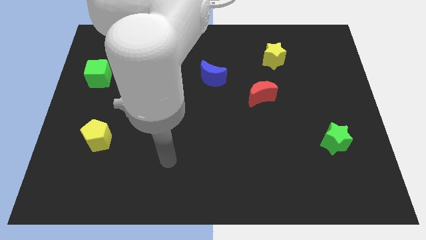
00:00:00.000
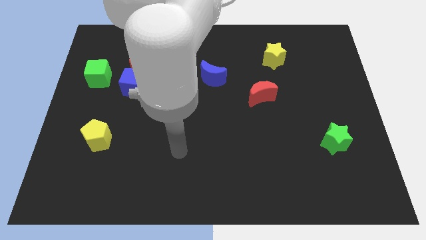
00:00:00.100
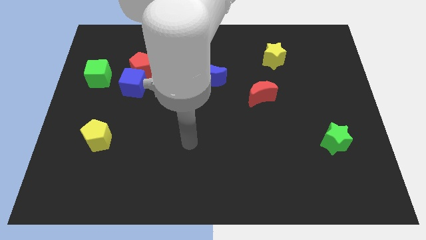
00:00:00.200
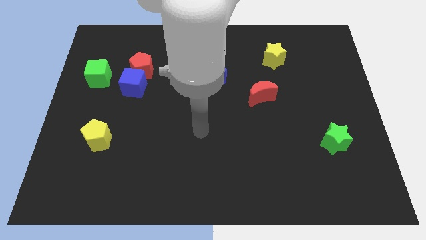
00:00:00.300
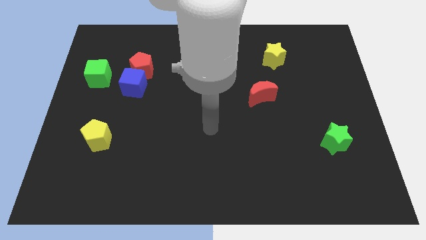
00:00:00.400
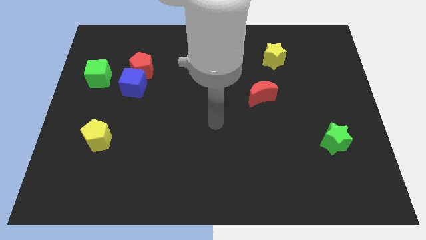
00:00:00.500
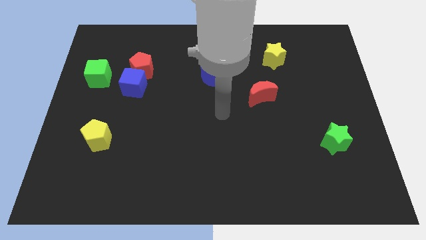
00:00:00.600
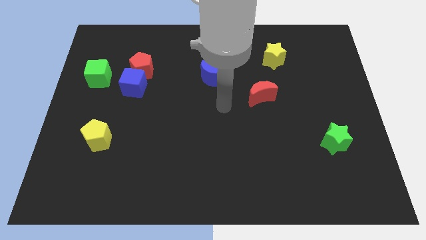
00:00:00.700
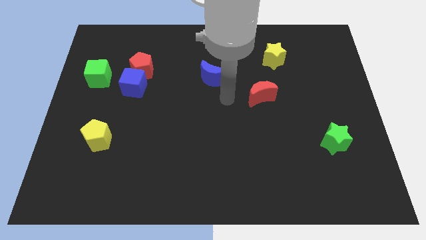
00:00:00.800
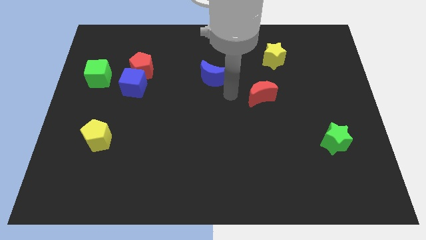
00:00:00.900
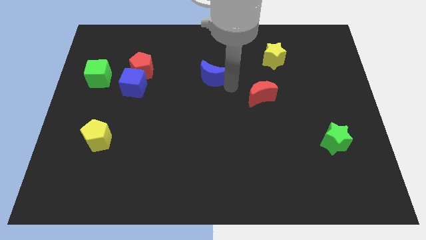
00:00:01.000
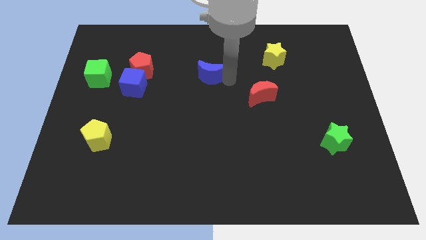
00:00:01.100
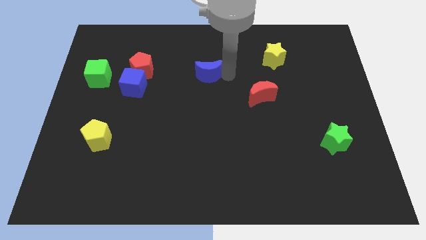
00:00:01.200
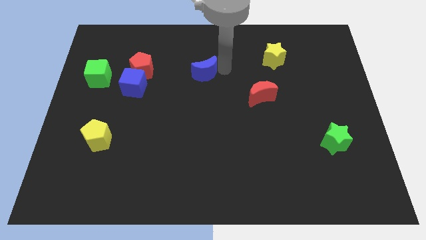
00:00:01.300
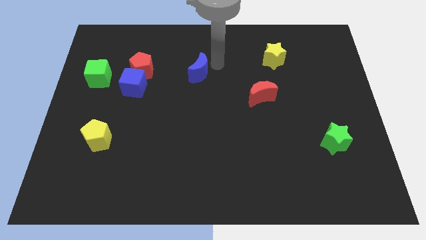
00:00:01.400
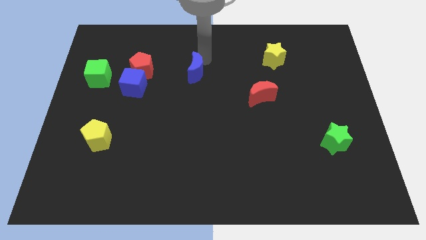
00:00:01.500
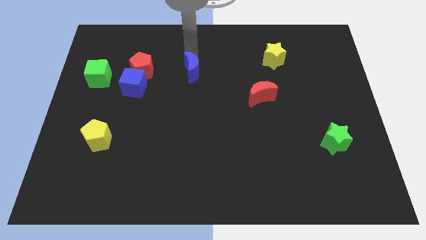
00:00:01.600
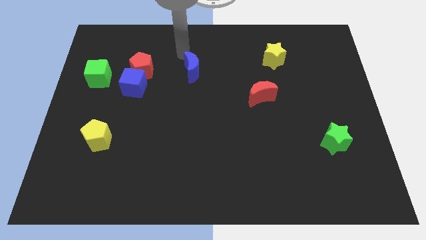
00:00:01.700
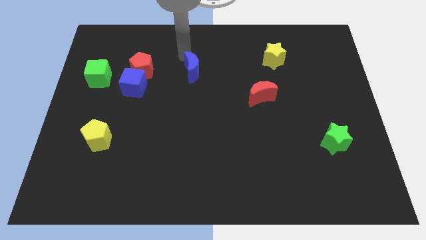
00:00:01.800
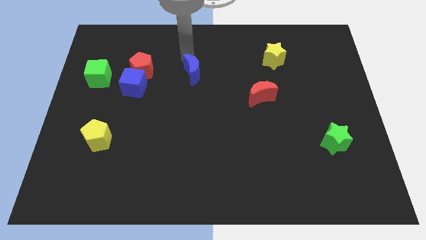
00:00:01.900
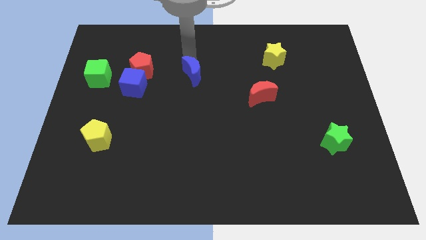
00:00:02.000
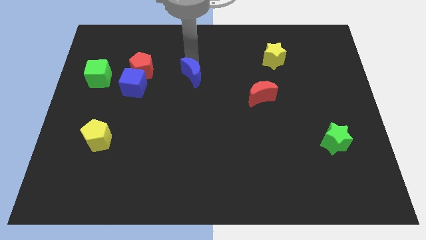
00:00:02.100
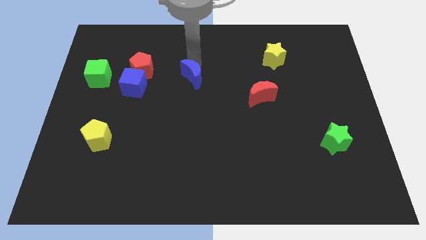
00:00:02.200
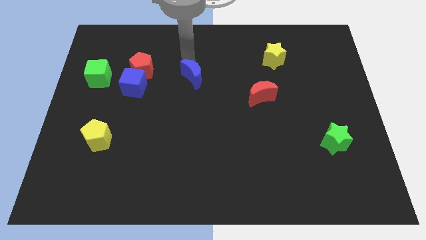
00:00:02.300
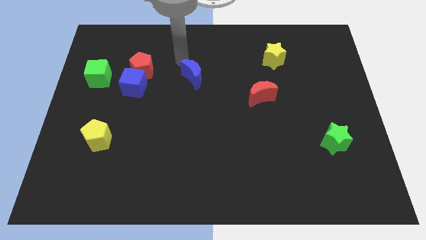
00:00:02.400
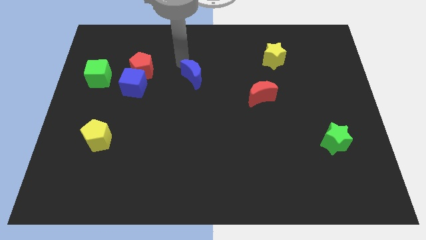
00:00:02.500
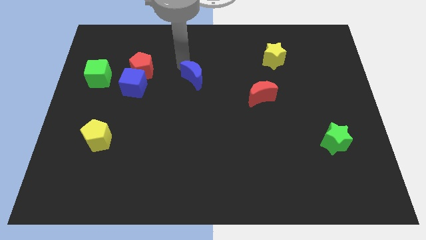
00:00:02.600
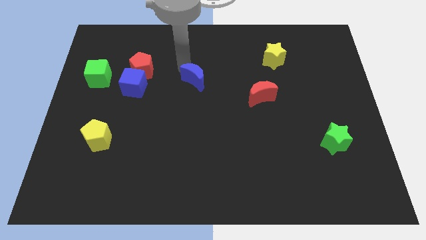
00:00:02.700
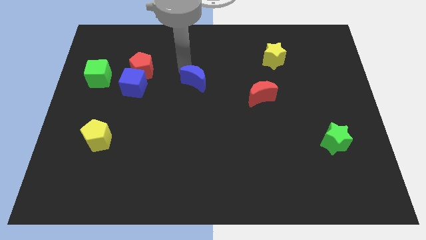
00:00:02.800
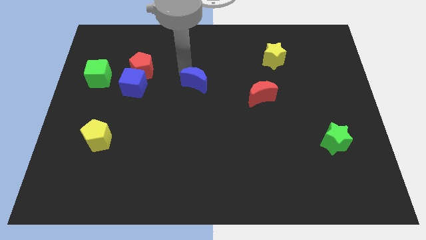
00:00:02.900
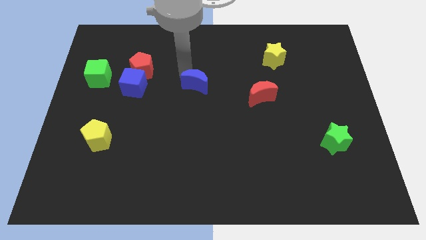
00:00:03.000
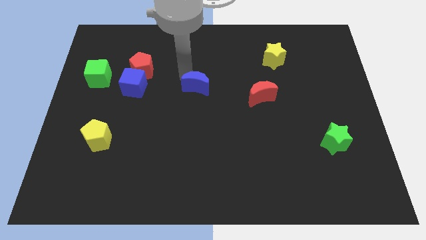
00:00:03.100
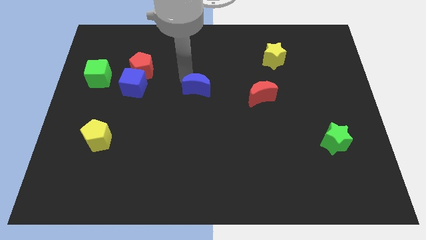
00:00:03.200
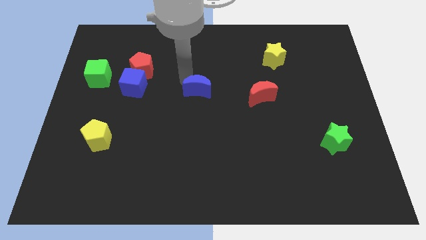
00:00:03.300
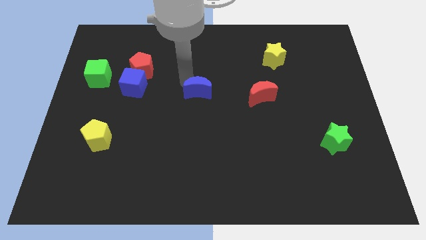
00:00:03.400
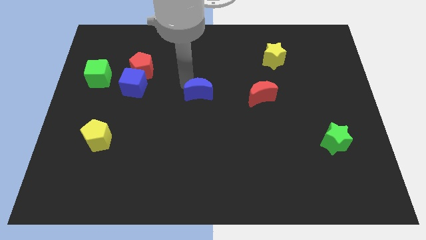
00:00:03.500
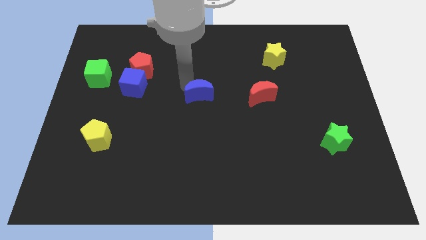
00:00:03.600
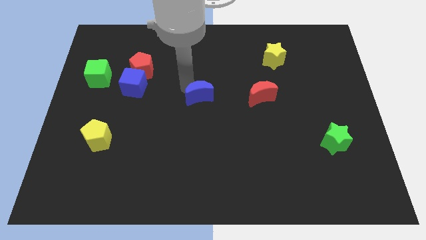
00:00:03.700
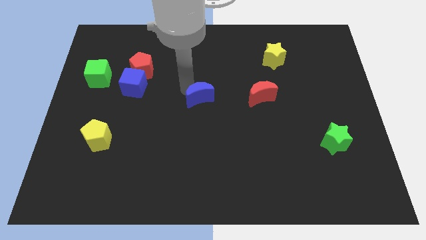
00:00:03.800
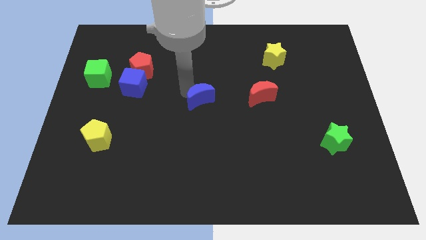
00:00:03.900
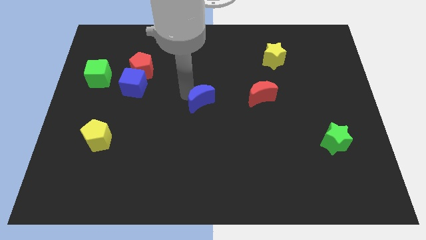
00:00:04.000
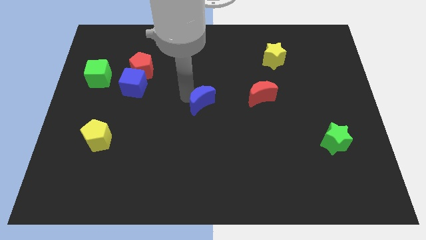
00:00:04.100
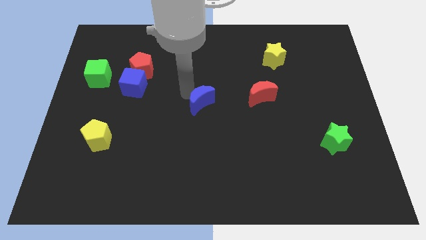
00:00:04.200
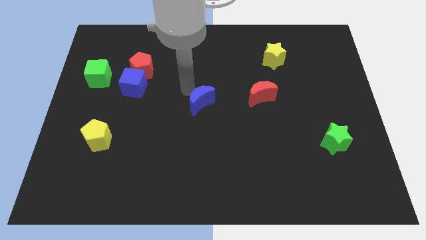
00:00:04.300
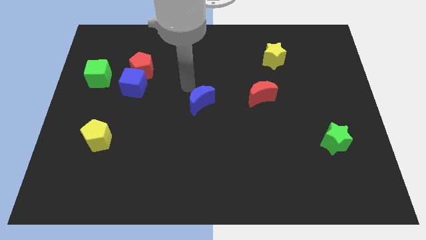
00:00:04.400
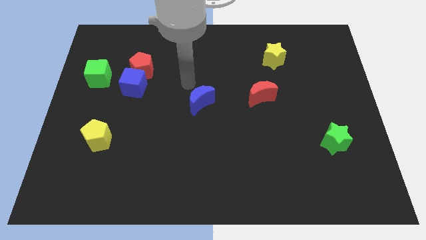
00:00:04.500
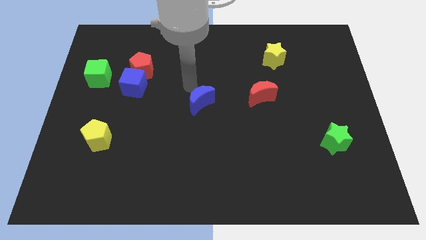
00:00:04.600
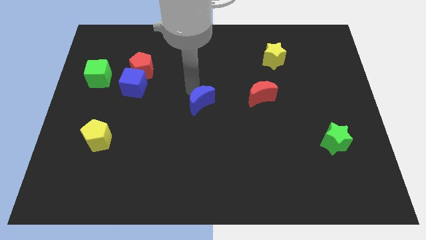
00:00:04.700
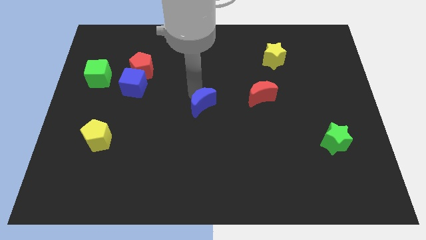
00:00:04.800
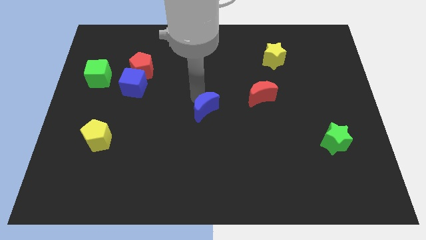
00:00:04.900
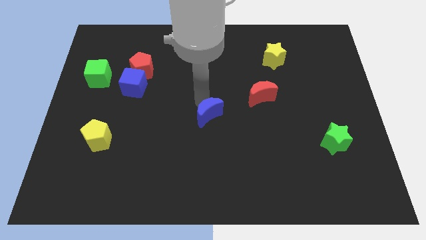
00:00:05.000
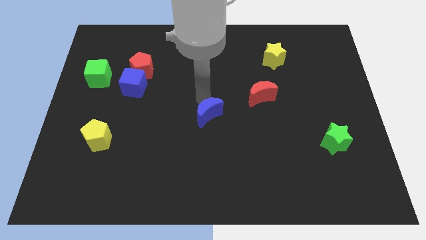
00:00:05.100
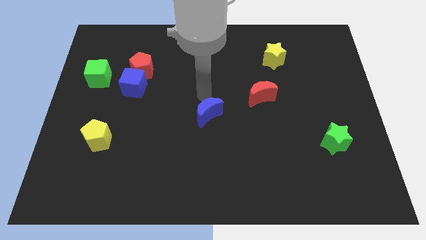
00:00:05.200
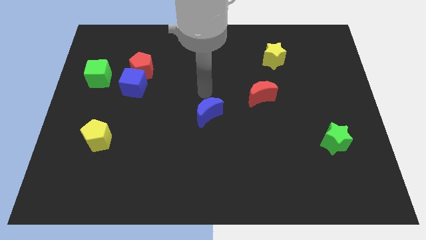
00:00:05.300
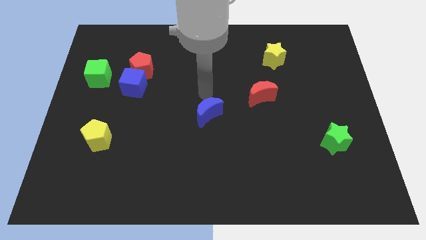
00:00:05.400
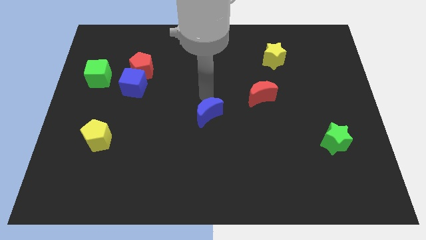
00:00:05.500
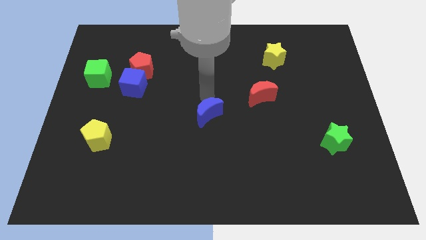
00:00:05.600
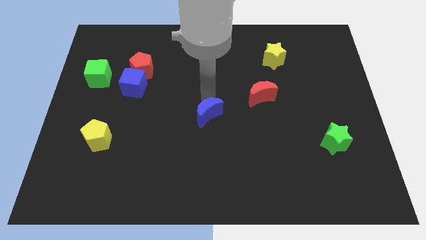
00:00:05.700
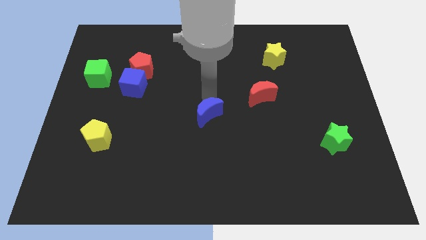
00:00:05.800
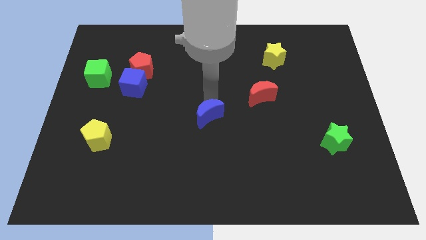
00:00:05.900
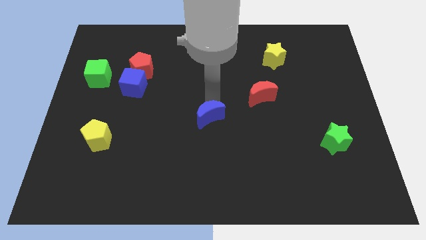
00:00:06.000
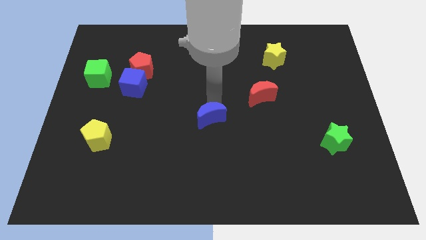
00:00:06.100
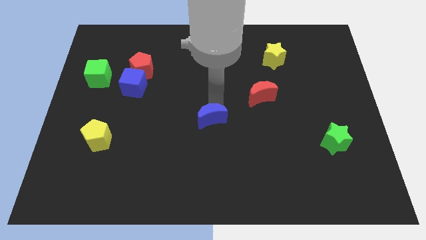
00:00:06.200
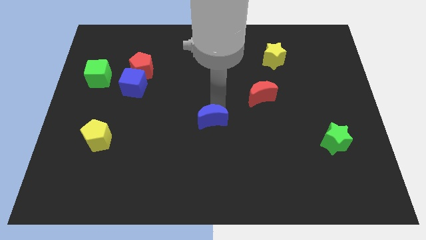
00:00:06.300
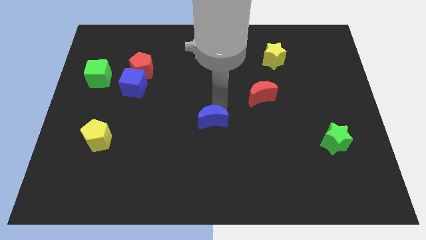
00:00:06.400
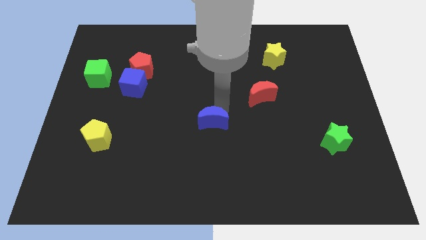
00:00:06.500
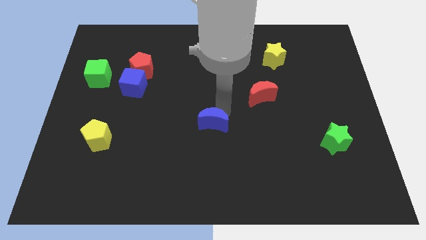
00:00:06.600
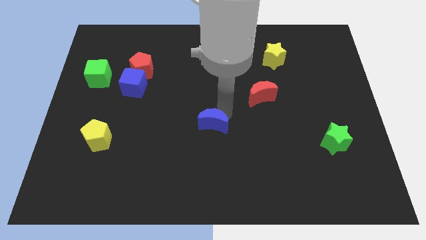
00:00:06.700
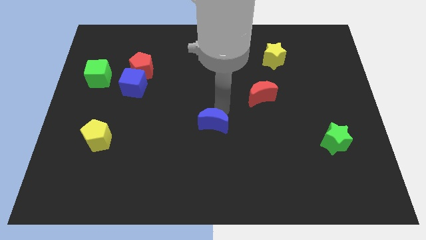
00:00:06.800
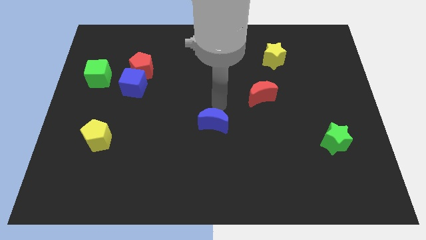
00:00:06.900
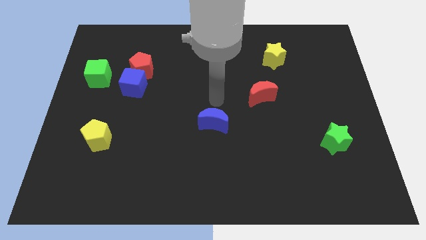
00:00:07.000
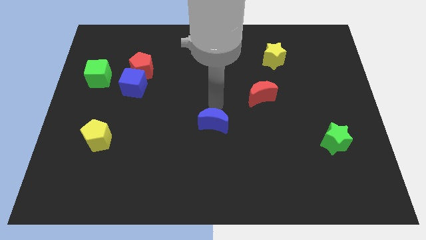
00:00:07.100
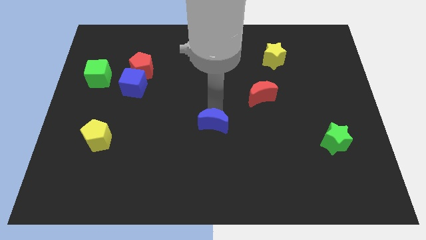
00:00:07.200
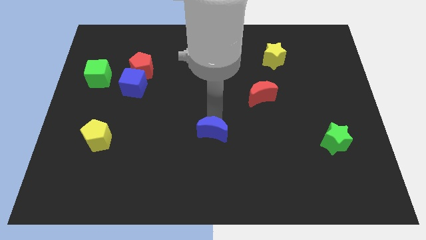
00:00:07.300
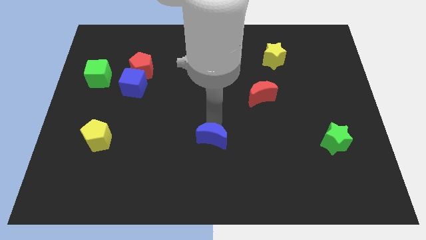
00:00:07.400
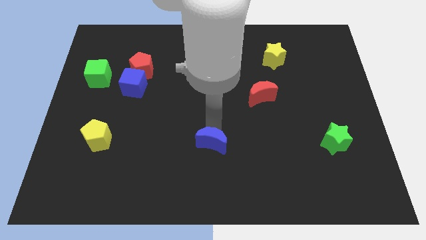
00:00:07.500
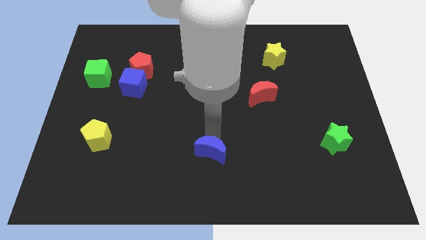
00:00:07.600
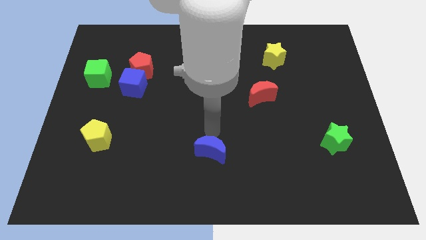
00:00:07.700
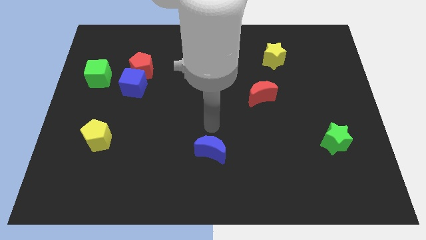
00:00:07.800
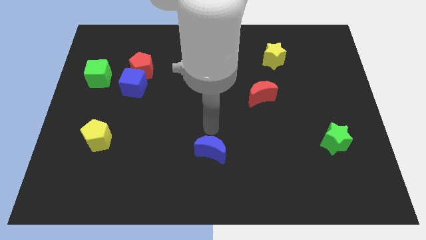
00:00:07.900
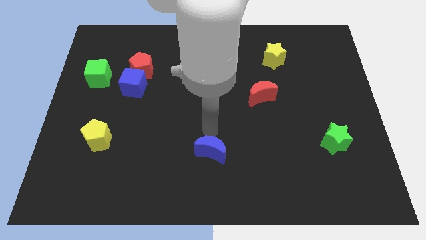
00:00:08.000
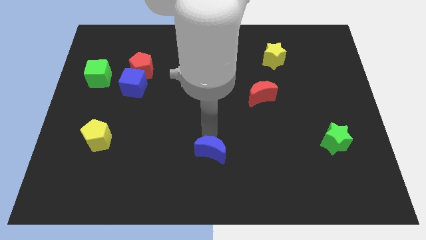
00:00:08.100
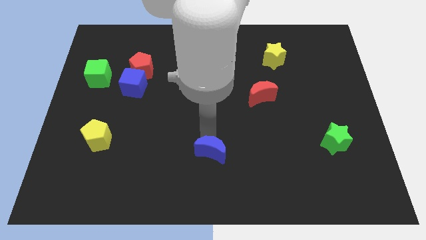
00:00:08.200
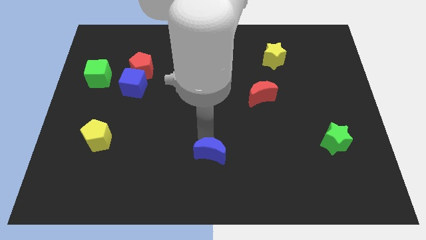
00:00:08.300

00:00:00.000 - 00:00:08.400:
move the blue moon to the bottom side
